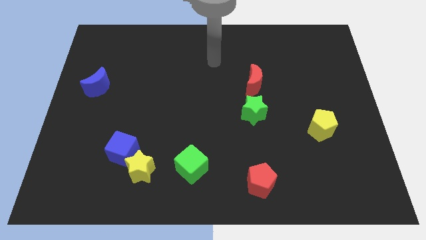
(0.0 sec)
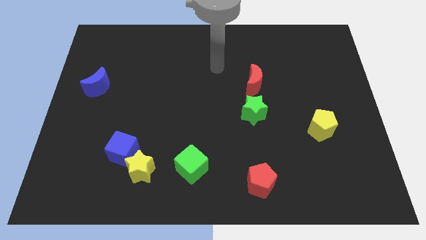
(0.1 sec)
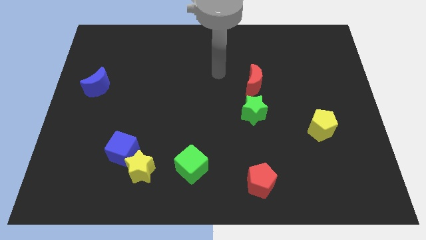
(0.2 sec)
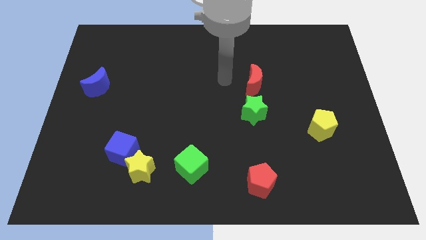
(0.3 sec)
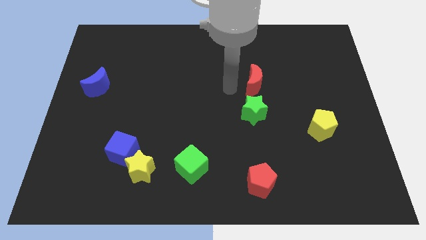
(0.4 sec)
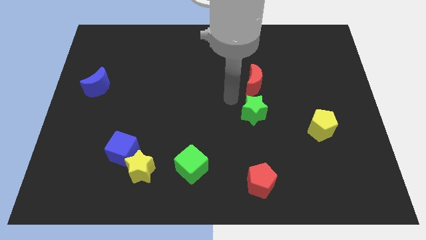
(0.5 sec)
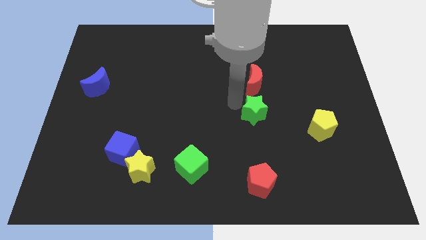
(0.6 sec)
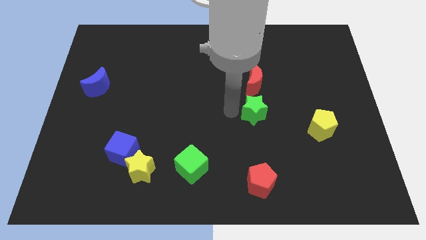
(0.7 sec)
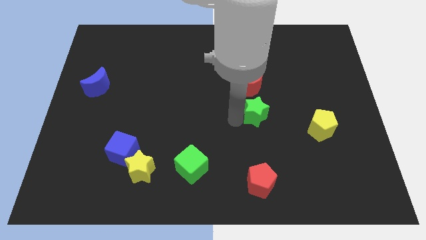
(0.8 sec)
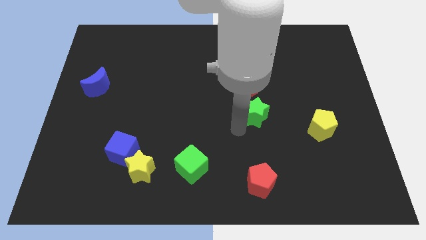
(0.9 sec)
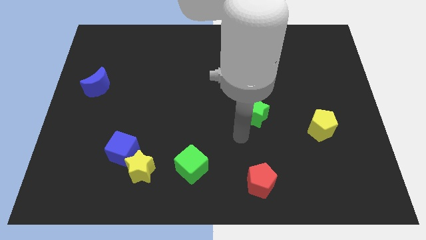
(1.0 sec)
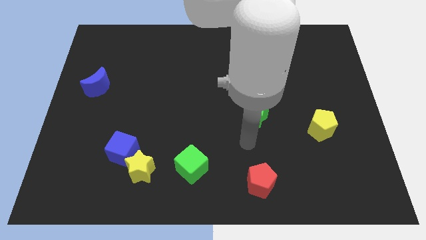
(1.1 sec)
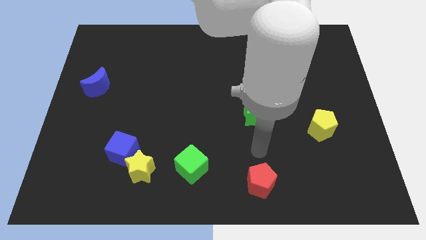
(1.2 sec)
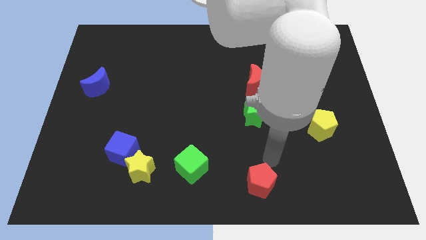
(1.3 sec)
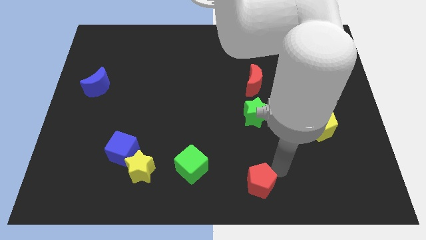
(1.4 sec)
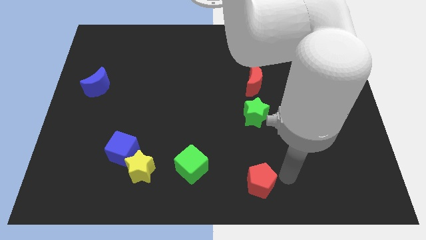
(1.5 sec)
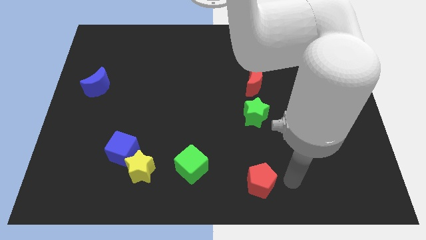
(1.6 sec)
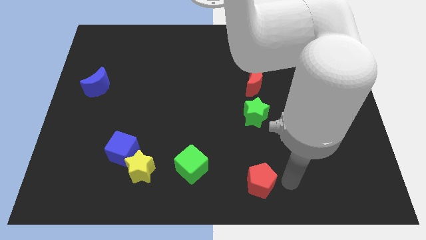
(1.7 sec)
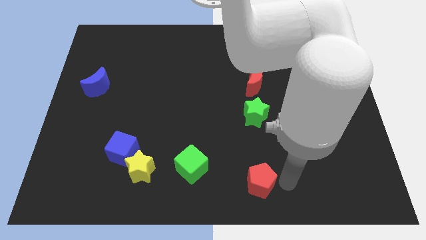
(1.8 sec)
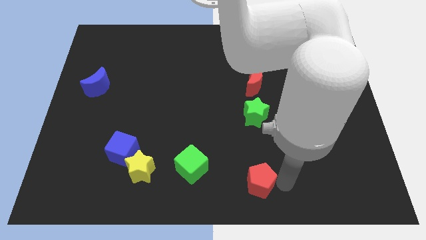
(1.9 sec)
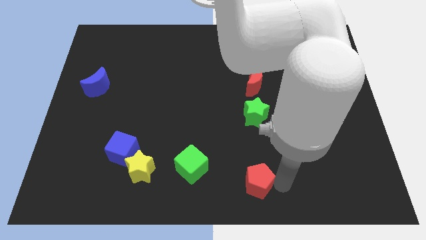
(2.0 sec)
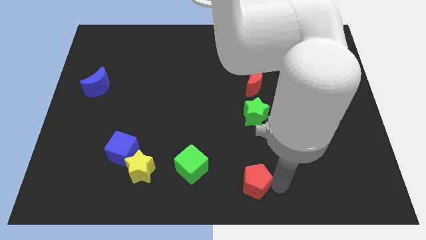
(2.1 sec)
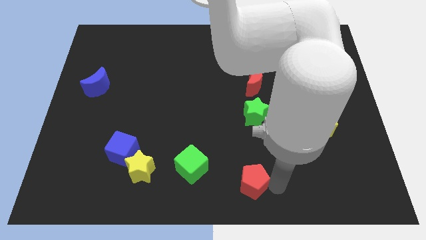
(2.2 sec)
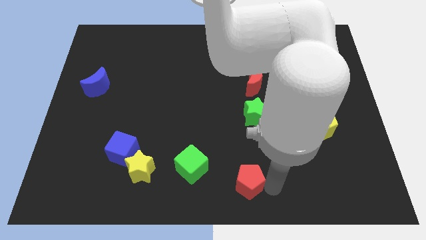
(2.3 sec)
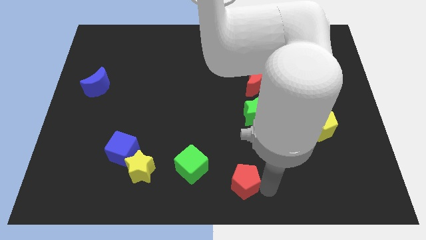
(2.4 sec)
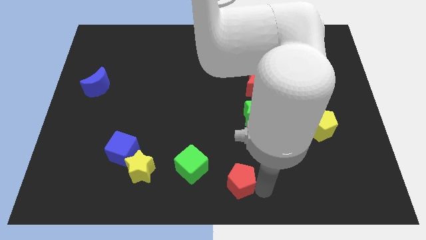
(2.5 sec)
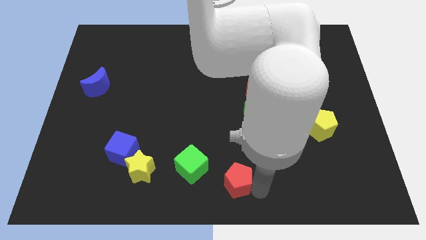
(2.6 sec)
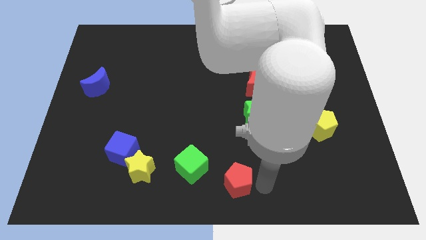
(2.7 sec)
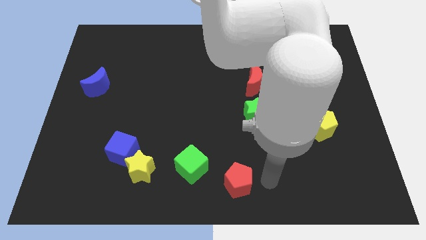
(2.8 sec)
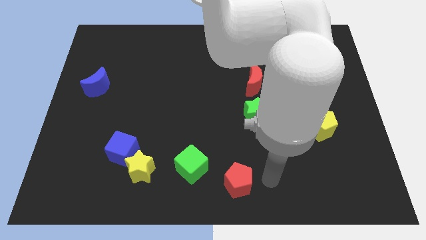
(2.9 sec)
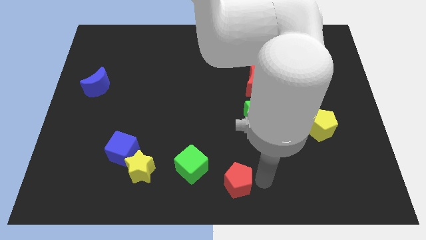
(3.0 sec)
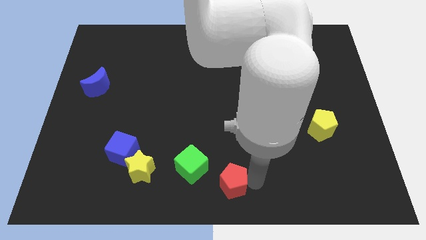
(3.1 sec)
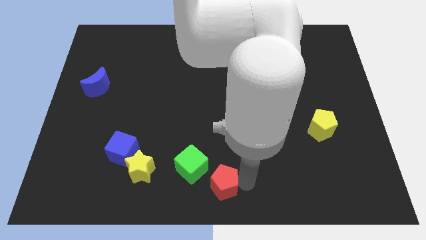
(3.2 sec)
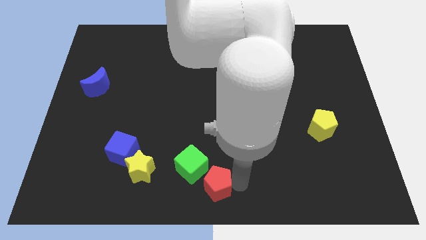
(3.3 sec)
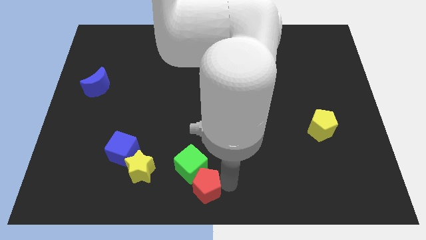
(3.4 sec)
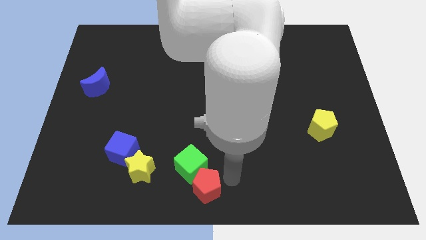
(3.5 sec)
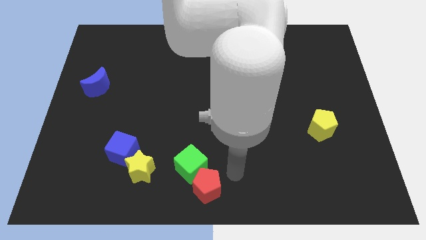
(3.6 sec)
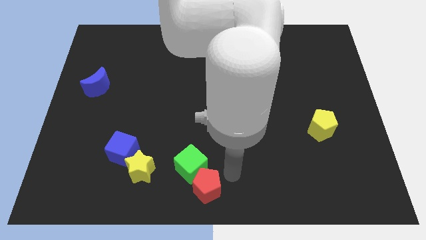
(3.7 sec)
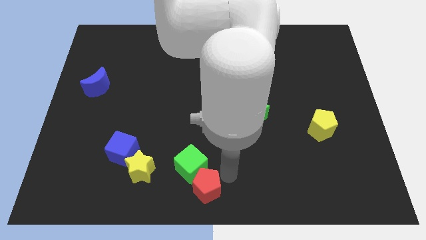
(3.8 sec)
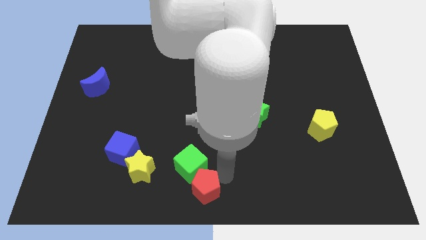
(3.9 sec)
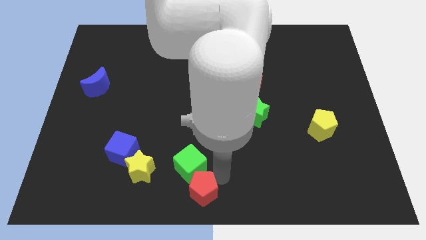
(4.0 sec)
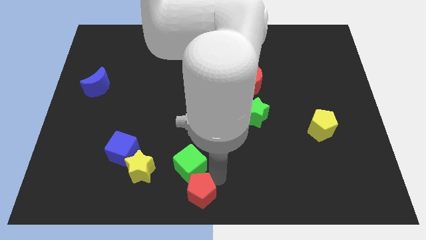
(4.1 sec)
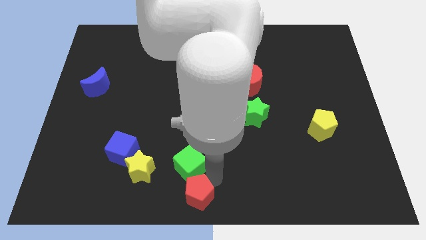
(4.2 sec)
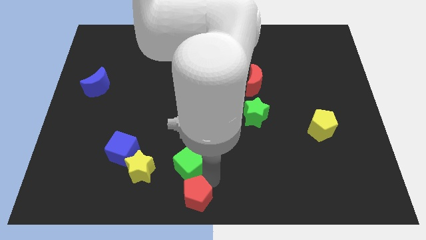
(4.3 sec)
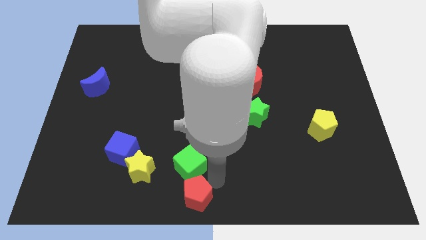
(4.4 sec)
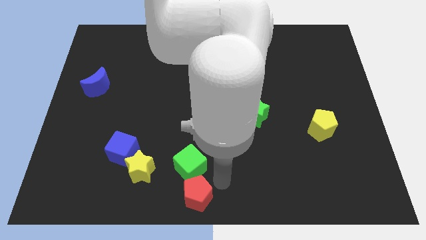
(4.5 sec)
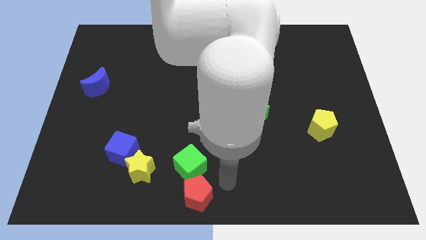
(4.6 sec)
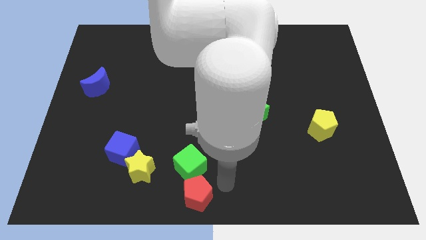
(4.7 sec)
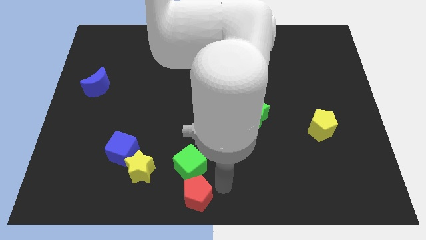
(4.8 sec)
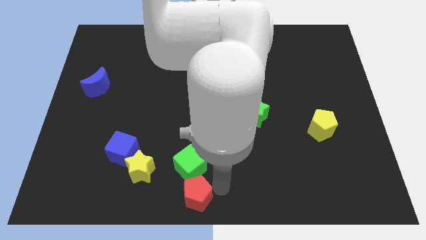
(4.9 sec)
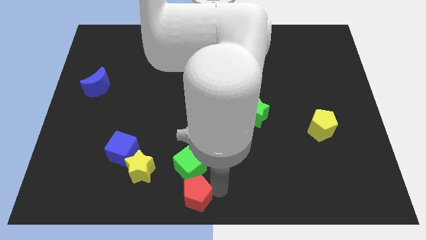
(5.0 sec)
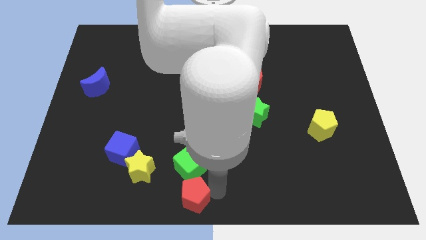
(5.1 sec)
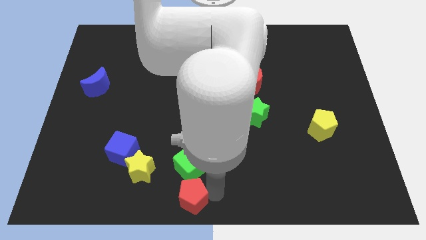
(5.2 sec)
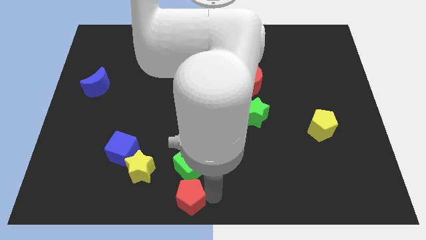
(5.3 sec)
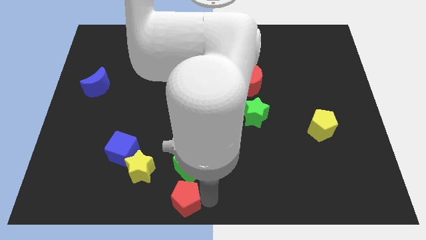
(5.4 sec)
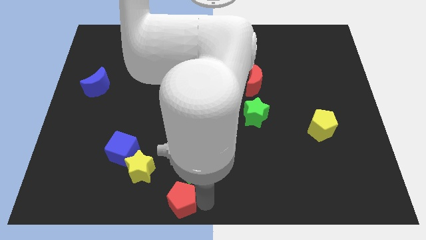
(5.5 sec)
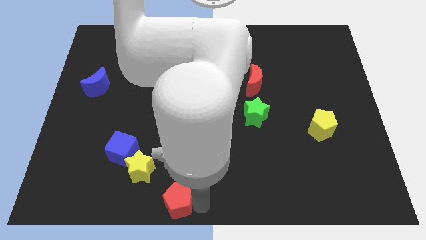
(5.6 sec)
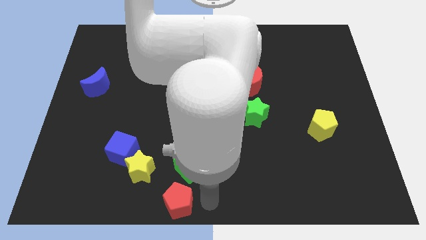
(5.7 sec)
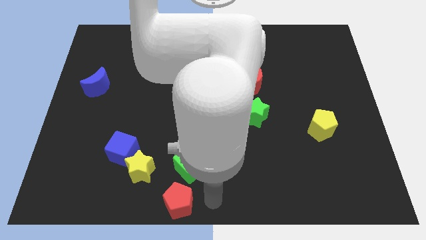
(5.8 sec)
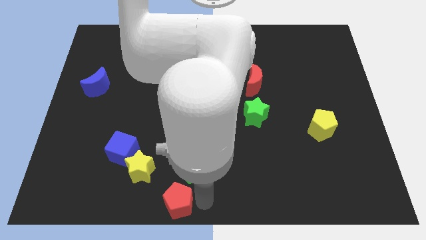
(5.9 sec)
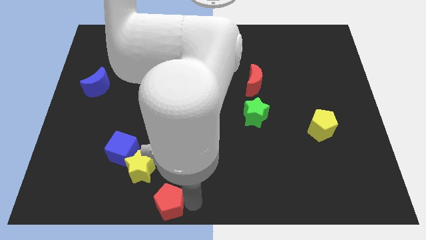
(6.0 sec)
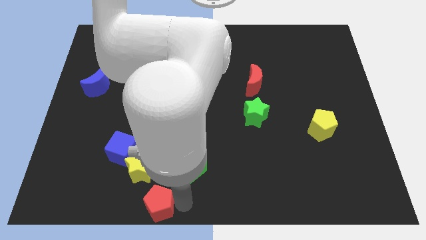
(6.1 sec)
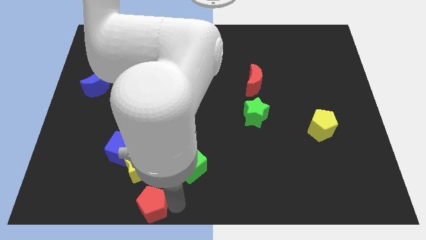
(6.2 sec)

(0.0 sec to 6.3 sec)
slide the red pentagon to the left

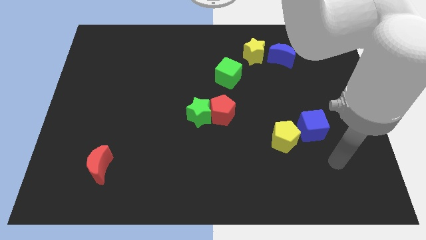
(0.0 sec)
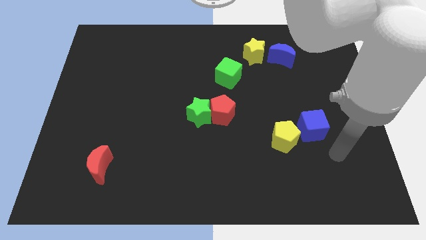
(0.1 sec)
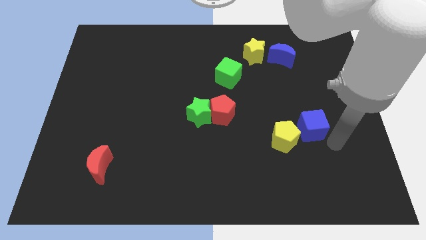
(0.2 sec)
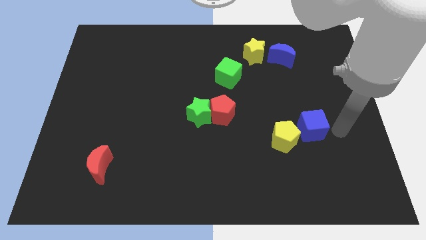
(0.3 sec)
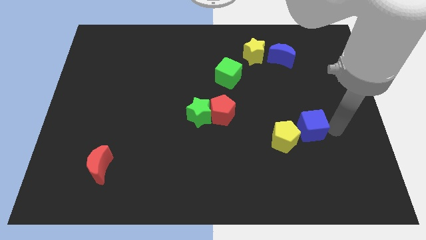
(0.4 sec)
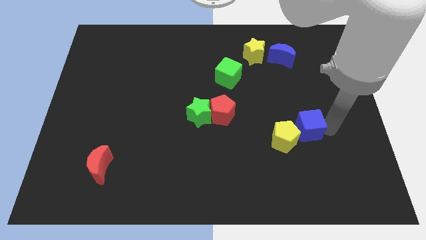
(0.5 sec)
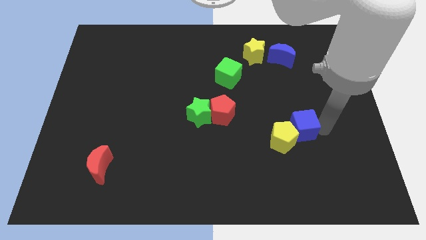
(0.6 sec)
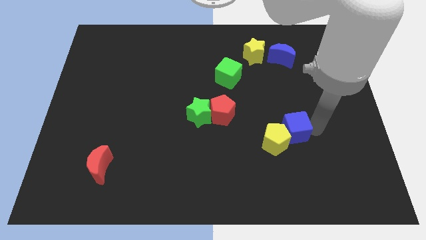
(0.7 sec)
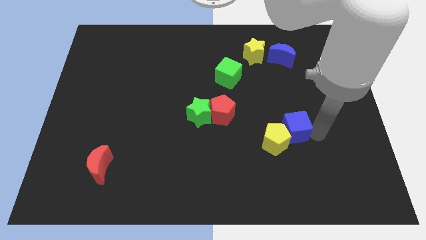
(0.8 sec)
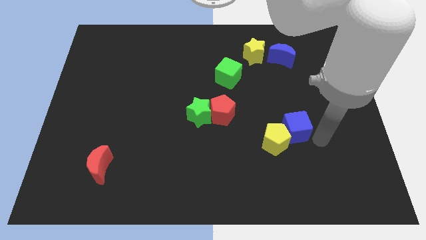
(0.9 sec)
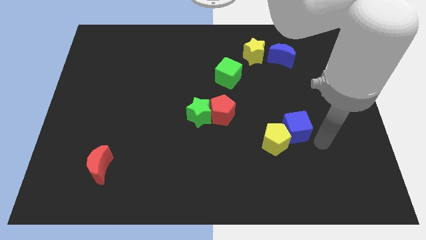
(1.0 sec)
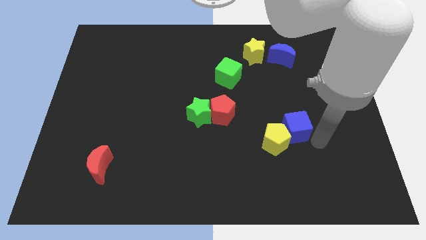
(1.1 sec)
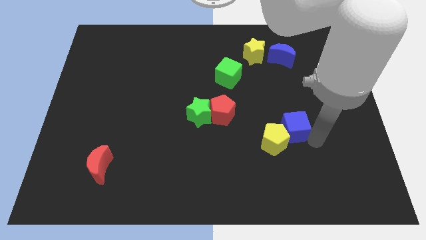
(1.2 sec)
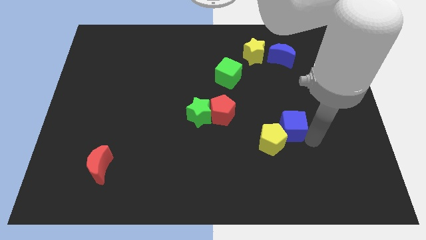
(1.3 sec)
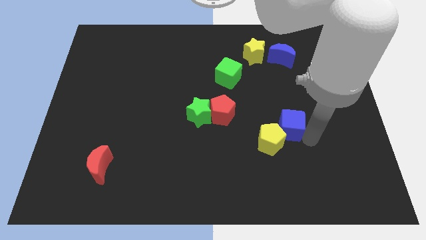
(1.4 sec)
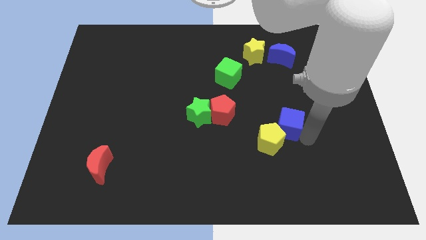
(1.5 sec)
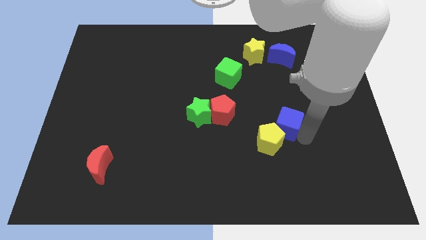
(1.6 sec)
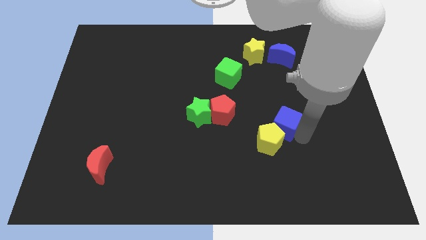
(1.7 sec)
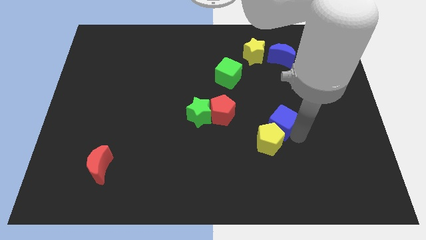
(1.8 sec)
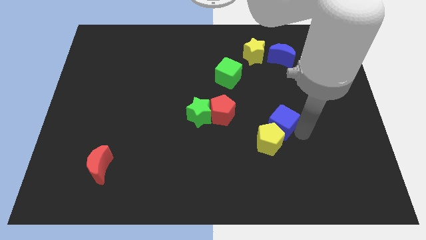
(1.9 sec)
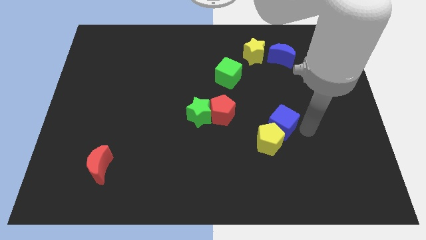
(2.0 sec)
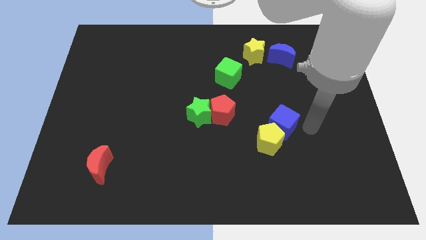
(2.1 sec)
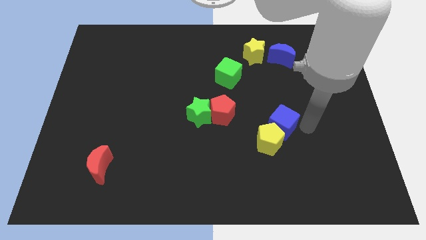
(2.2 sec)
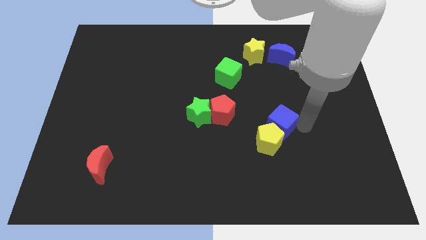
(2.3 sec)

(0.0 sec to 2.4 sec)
slide the blue cube to the left somewhat
